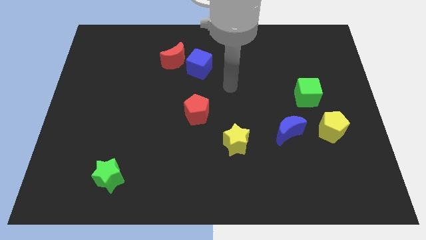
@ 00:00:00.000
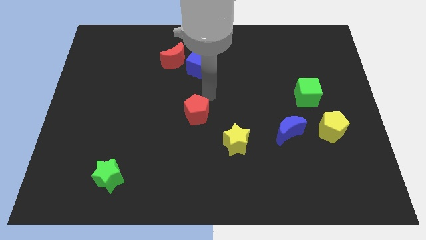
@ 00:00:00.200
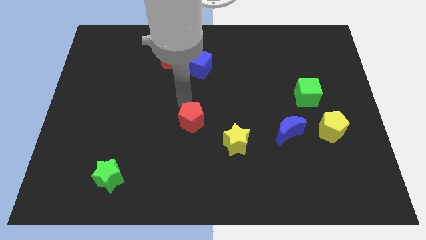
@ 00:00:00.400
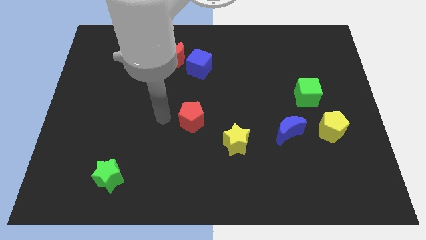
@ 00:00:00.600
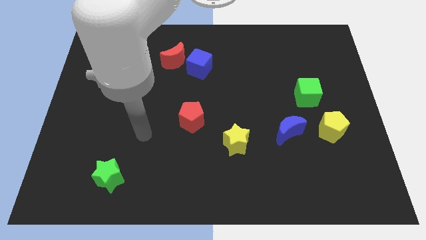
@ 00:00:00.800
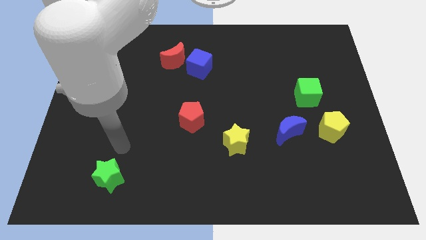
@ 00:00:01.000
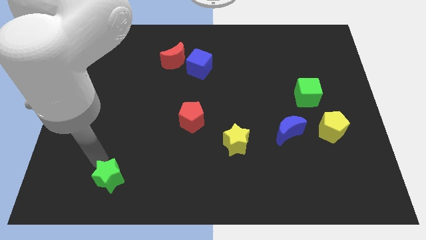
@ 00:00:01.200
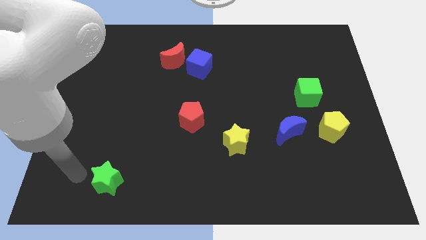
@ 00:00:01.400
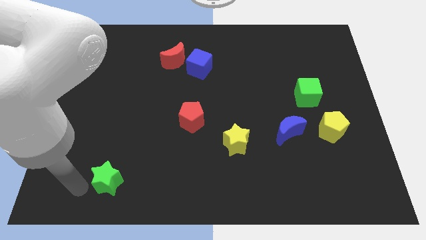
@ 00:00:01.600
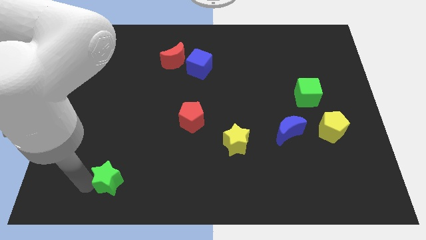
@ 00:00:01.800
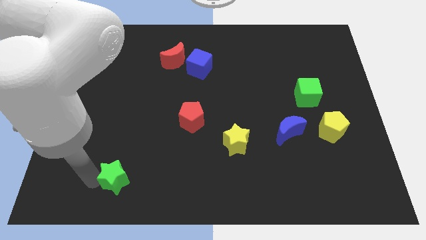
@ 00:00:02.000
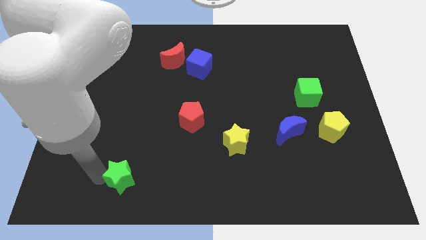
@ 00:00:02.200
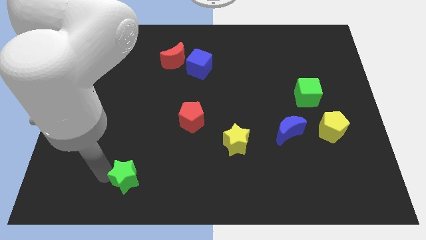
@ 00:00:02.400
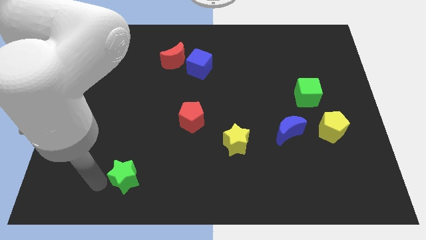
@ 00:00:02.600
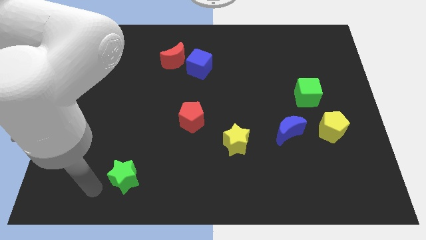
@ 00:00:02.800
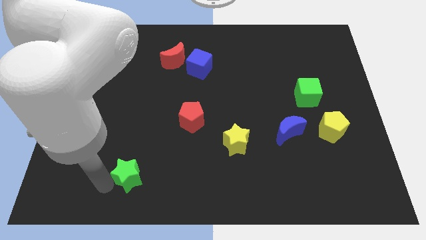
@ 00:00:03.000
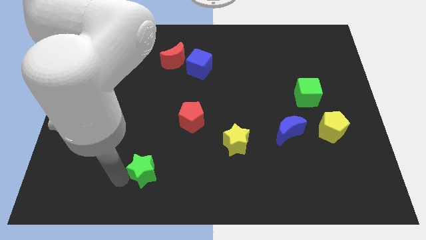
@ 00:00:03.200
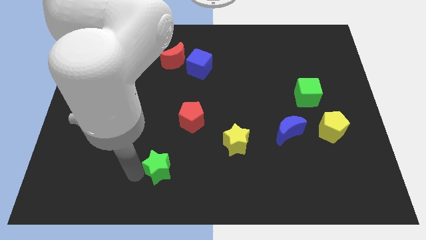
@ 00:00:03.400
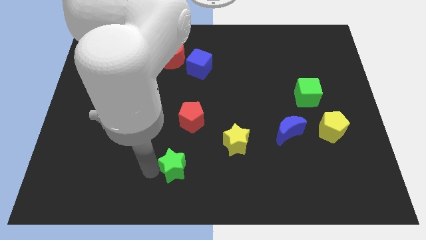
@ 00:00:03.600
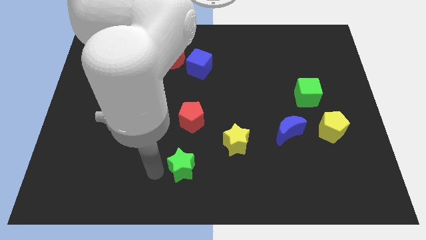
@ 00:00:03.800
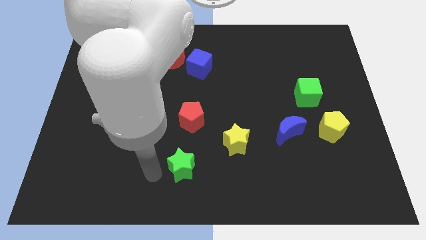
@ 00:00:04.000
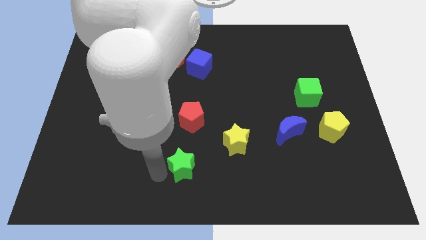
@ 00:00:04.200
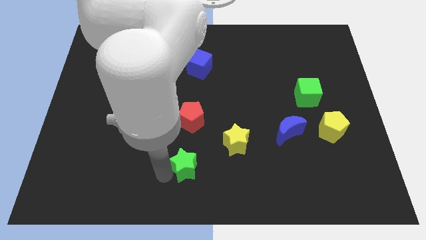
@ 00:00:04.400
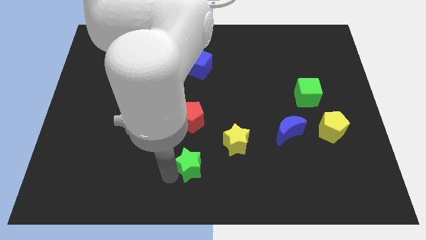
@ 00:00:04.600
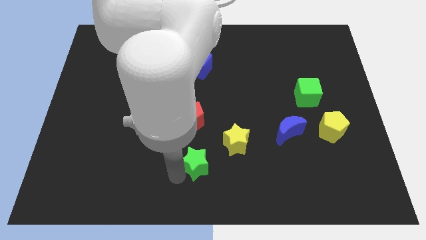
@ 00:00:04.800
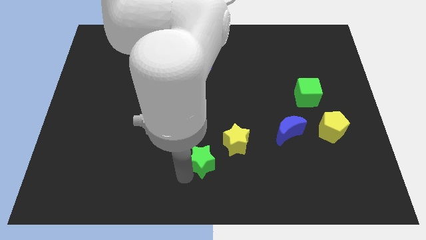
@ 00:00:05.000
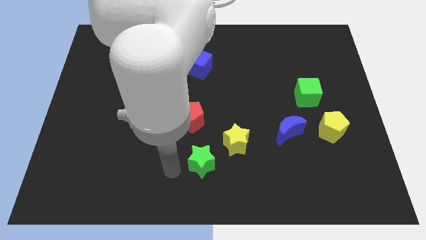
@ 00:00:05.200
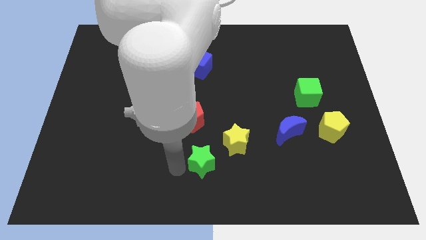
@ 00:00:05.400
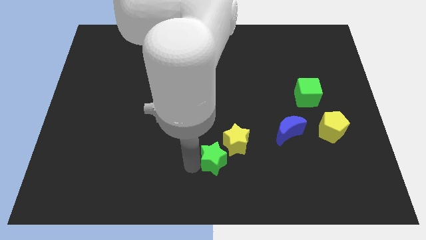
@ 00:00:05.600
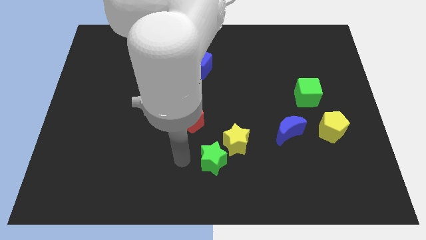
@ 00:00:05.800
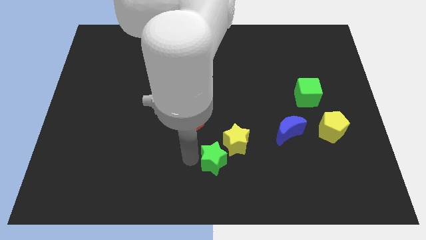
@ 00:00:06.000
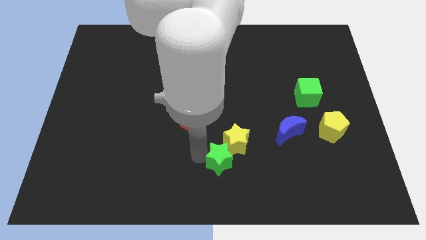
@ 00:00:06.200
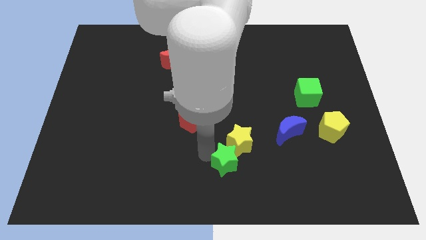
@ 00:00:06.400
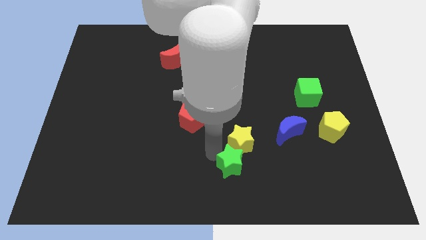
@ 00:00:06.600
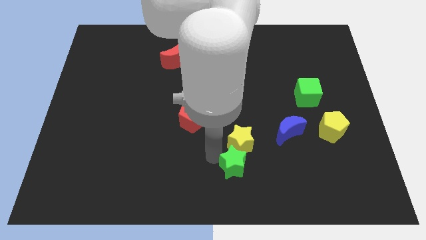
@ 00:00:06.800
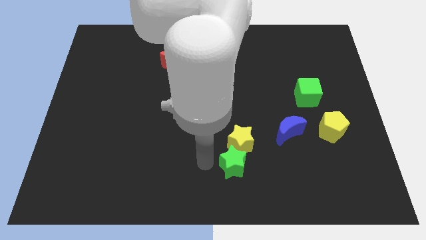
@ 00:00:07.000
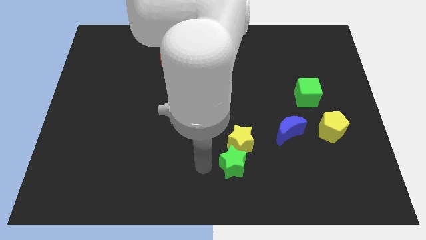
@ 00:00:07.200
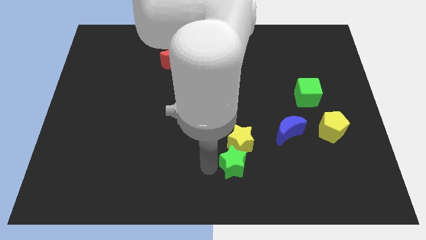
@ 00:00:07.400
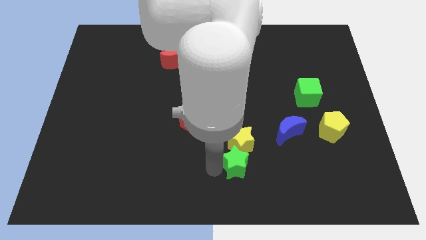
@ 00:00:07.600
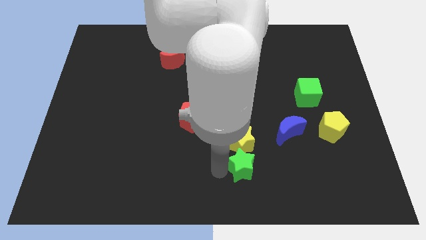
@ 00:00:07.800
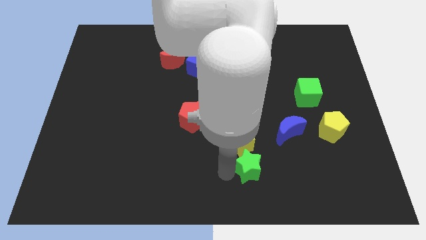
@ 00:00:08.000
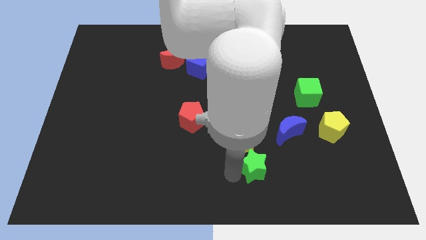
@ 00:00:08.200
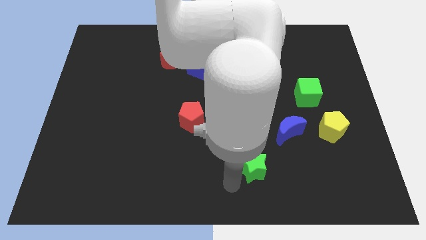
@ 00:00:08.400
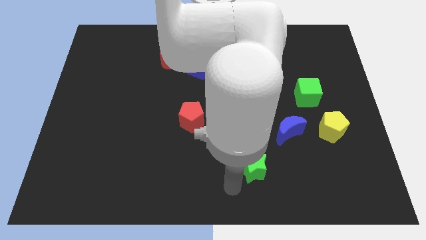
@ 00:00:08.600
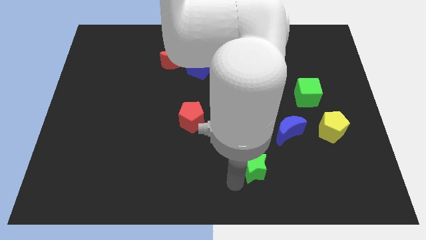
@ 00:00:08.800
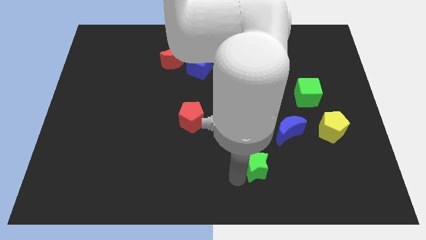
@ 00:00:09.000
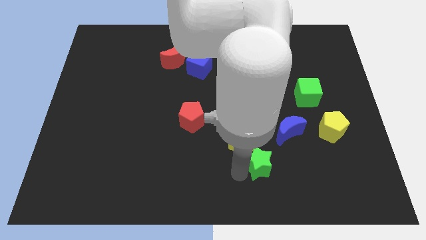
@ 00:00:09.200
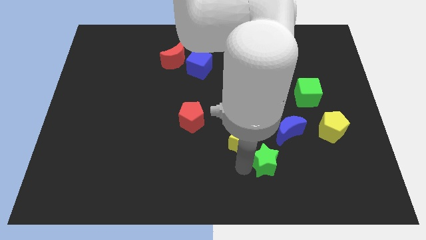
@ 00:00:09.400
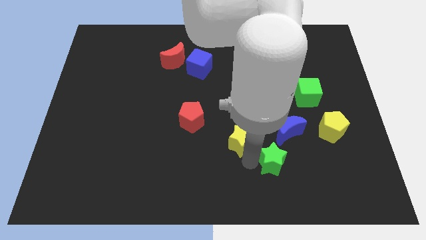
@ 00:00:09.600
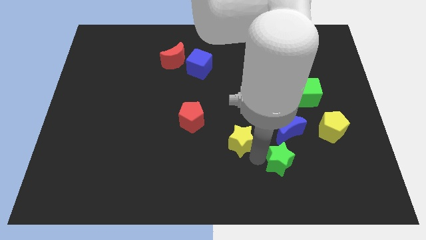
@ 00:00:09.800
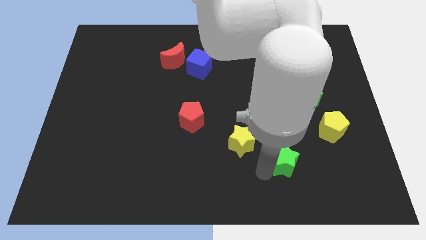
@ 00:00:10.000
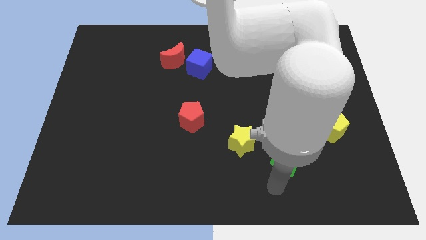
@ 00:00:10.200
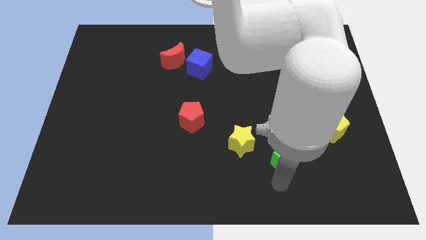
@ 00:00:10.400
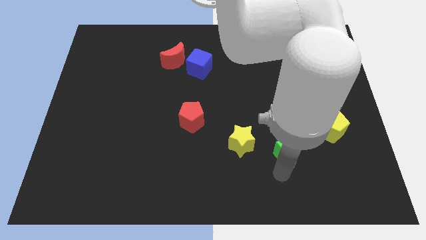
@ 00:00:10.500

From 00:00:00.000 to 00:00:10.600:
push the green star close to the blue moon

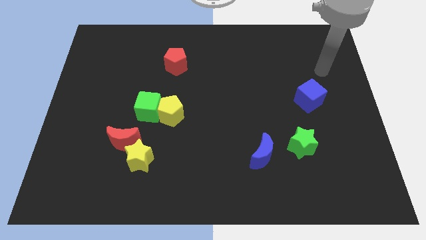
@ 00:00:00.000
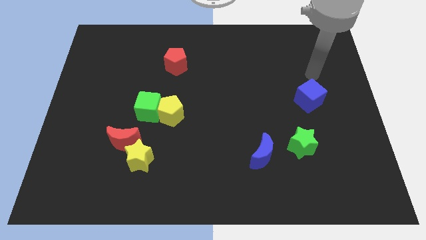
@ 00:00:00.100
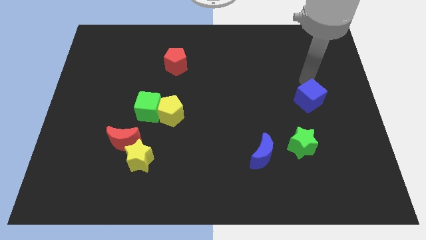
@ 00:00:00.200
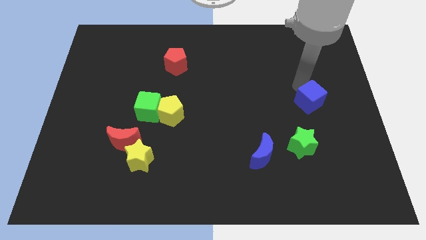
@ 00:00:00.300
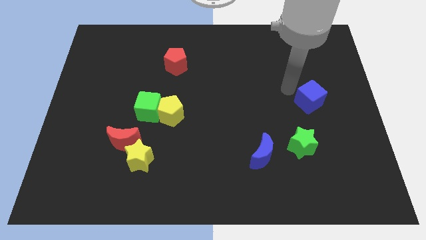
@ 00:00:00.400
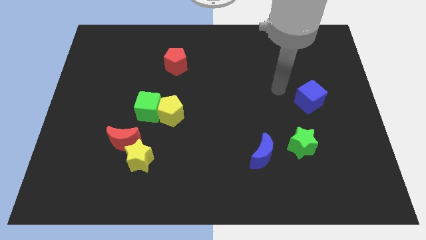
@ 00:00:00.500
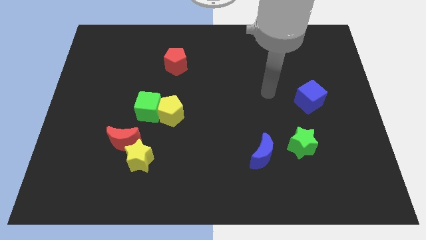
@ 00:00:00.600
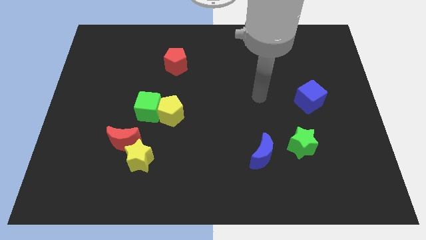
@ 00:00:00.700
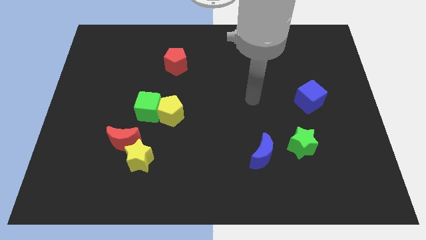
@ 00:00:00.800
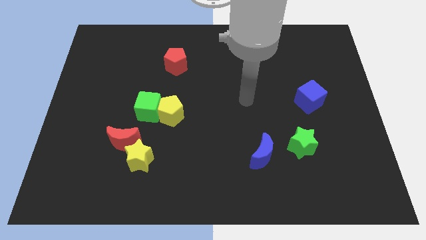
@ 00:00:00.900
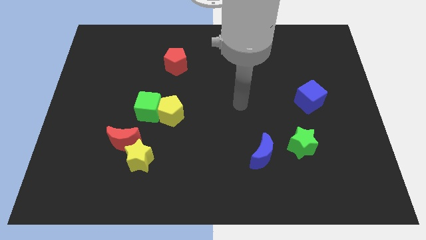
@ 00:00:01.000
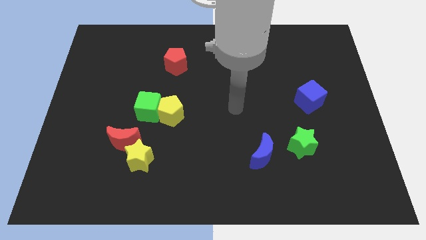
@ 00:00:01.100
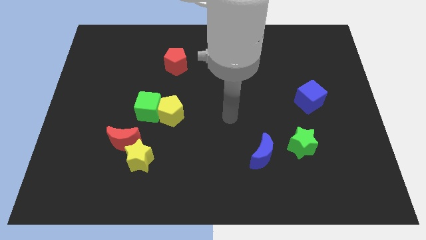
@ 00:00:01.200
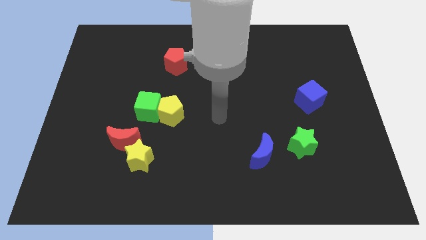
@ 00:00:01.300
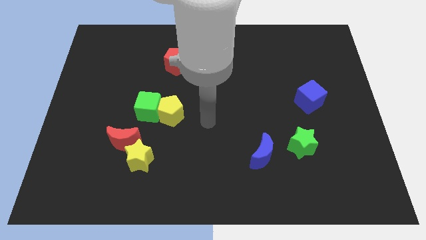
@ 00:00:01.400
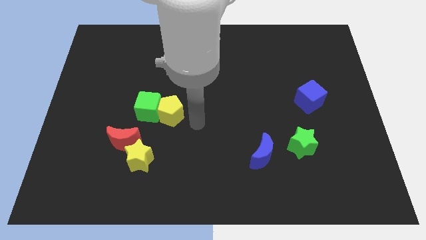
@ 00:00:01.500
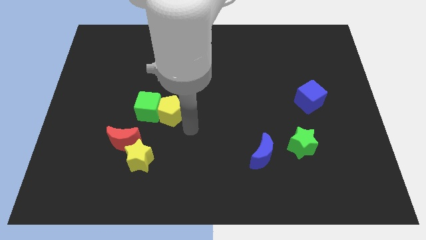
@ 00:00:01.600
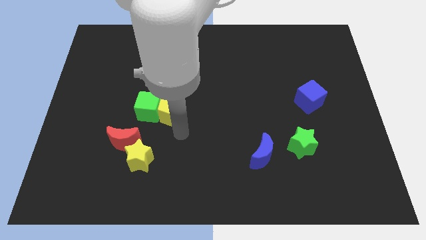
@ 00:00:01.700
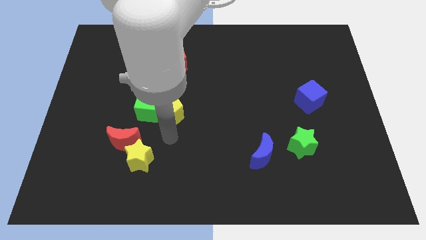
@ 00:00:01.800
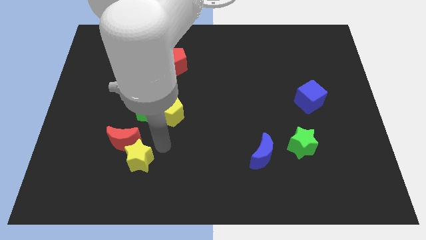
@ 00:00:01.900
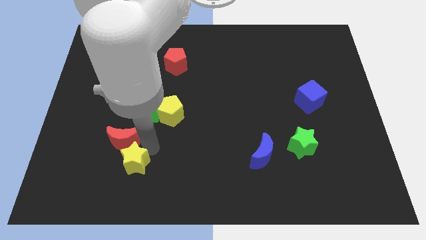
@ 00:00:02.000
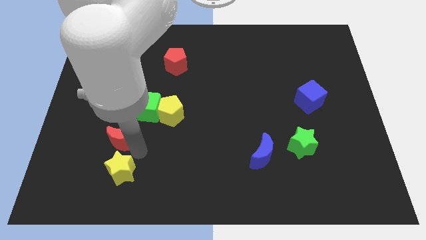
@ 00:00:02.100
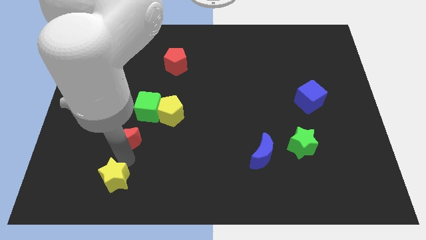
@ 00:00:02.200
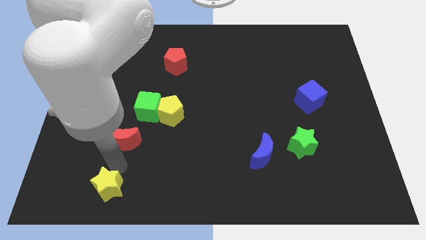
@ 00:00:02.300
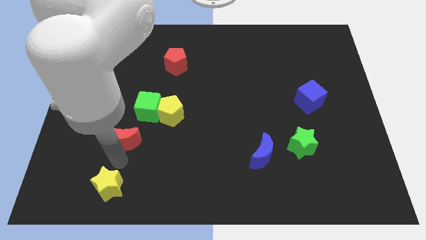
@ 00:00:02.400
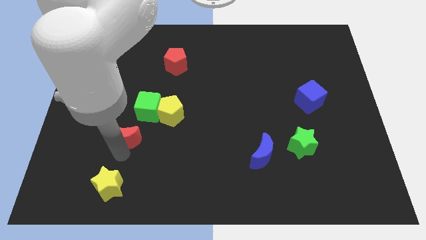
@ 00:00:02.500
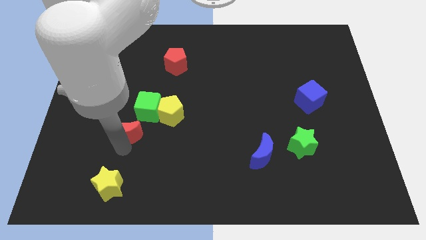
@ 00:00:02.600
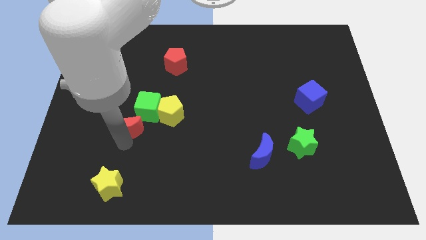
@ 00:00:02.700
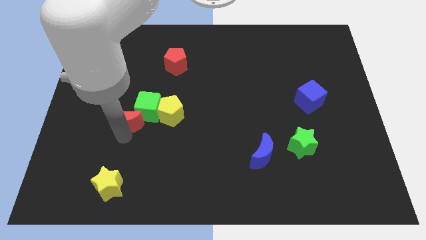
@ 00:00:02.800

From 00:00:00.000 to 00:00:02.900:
slide the red moon towards the green cube
